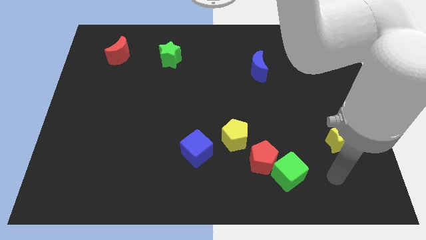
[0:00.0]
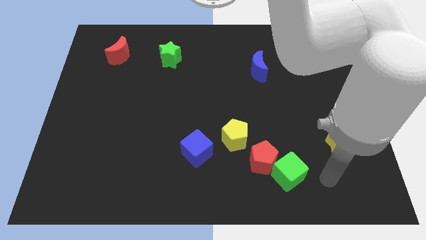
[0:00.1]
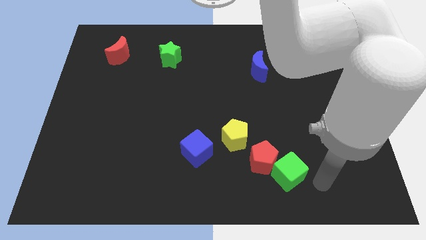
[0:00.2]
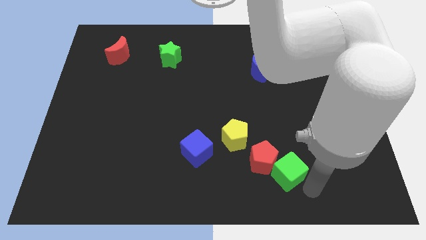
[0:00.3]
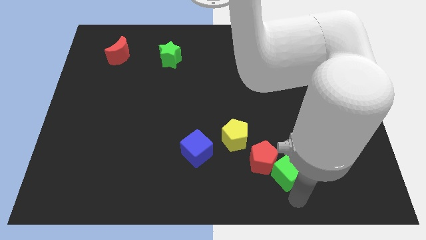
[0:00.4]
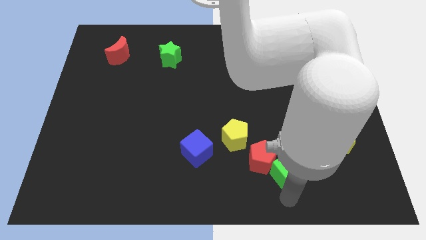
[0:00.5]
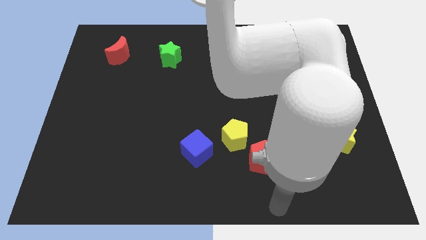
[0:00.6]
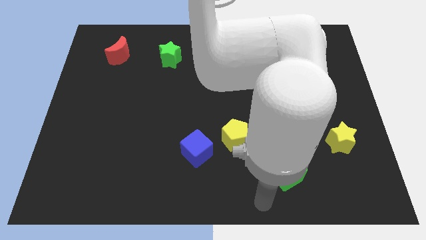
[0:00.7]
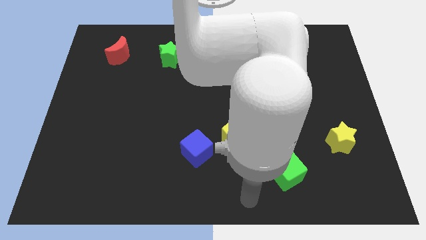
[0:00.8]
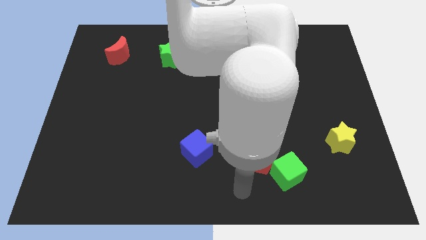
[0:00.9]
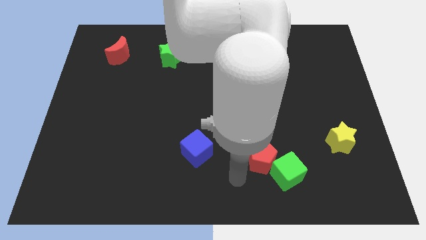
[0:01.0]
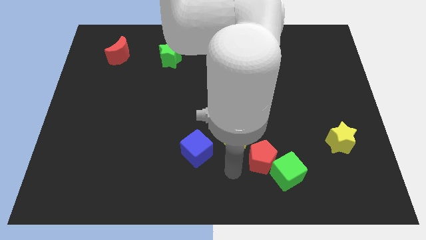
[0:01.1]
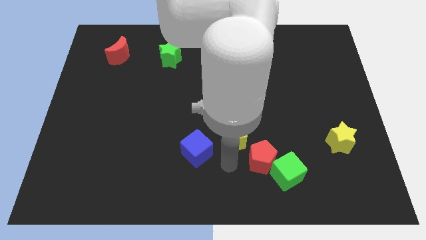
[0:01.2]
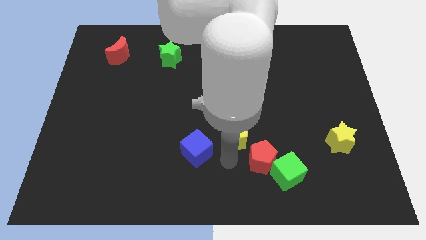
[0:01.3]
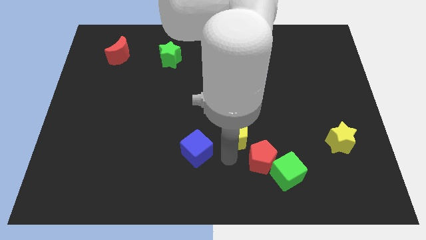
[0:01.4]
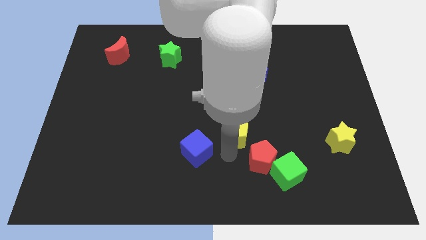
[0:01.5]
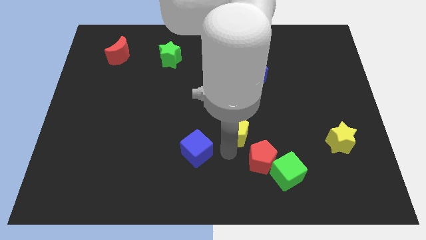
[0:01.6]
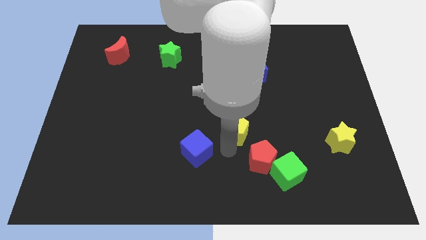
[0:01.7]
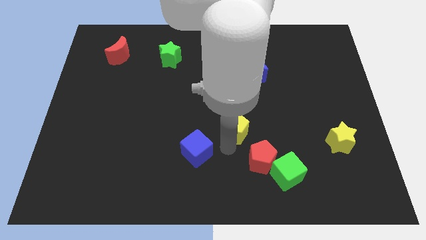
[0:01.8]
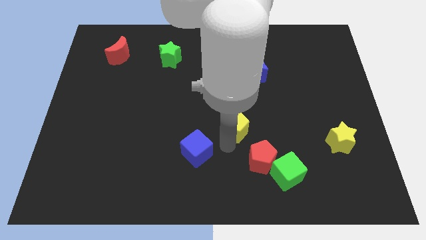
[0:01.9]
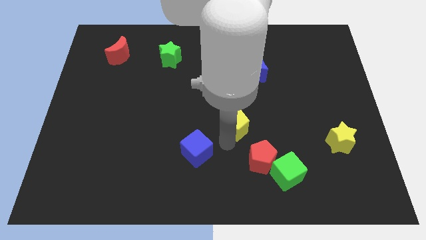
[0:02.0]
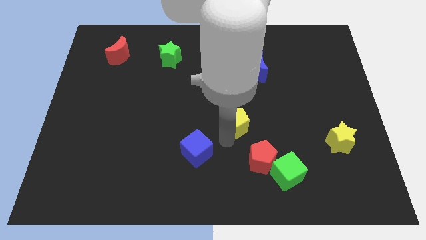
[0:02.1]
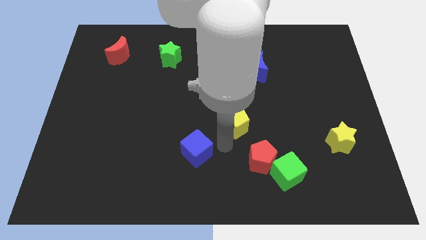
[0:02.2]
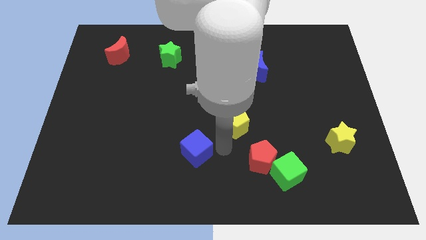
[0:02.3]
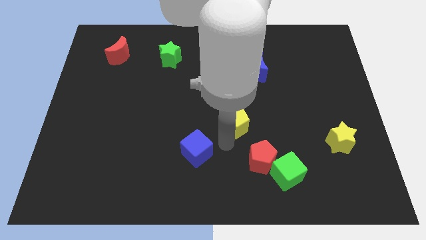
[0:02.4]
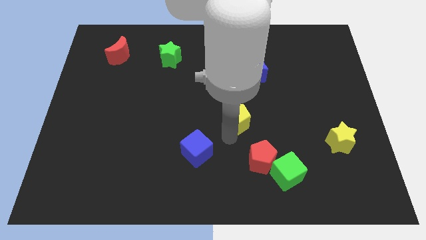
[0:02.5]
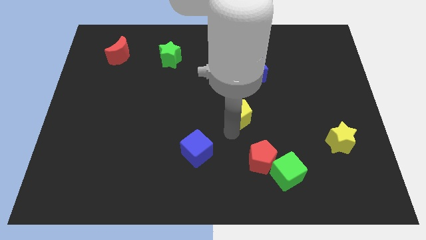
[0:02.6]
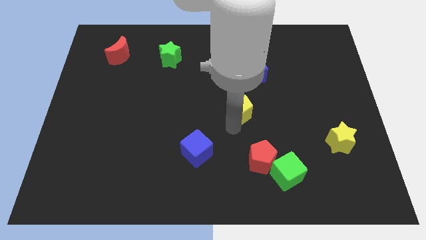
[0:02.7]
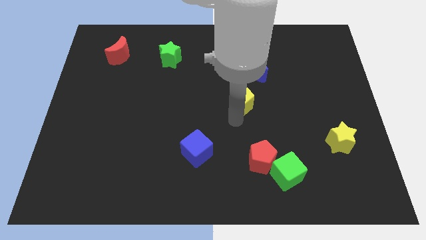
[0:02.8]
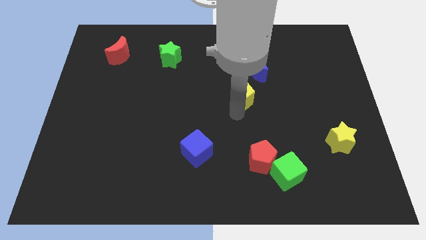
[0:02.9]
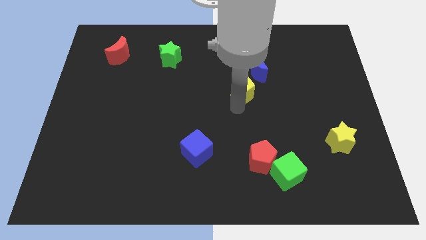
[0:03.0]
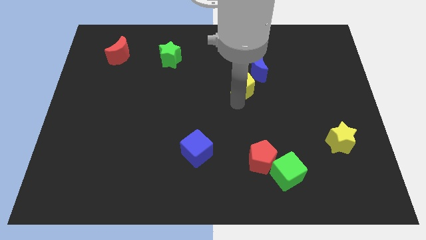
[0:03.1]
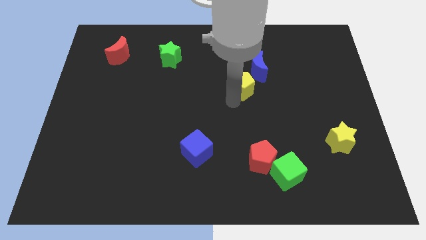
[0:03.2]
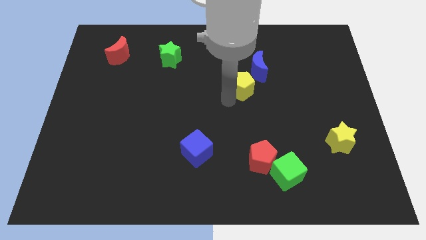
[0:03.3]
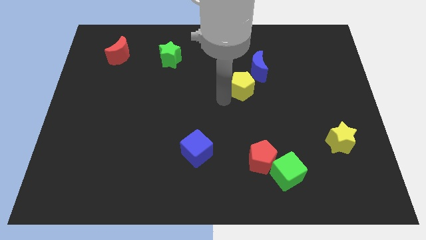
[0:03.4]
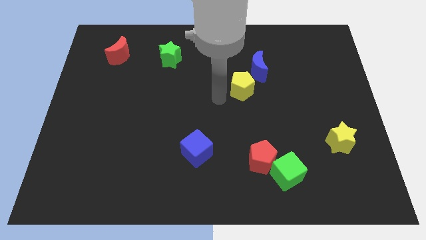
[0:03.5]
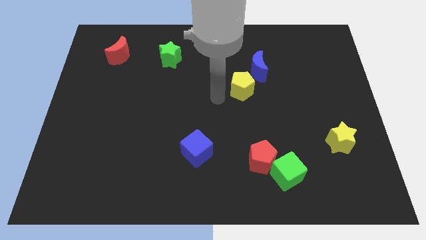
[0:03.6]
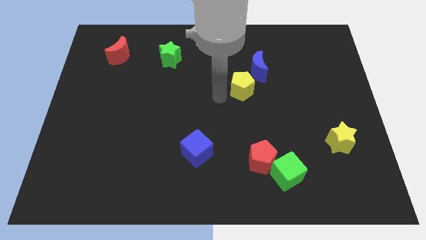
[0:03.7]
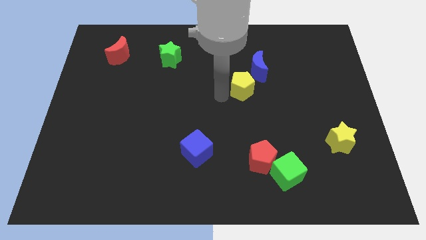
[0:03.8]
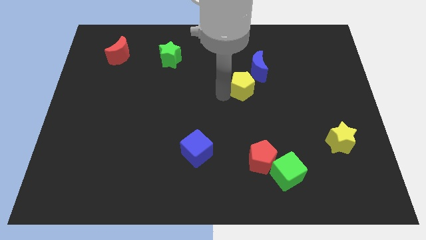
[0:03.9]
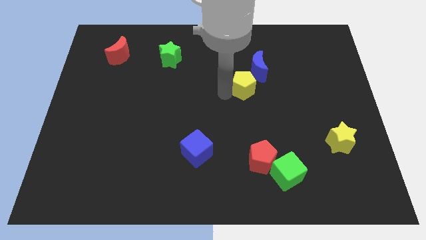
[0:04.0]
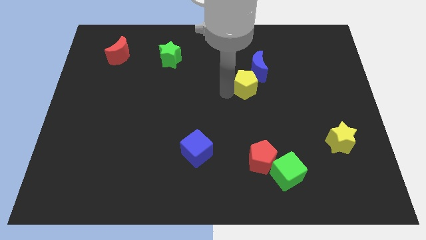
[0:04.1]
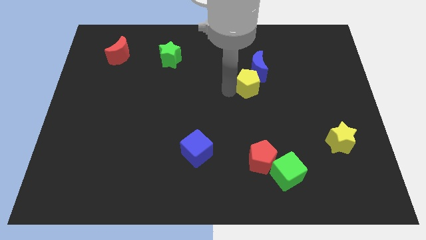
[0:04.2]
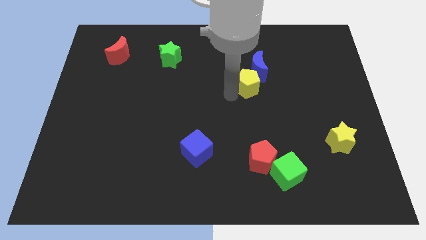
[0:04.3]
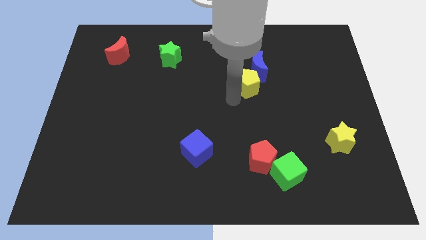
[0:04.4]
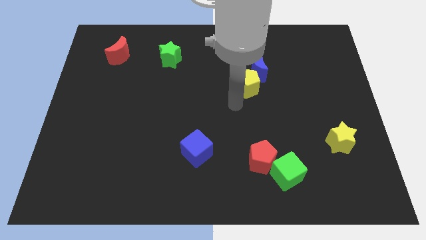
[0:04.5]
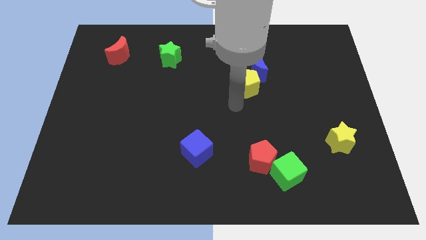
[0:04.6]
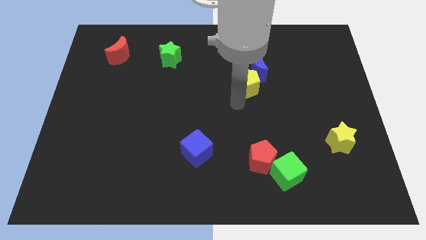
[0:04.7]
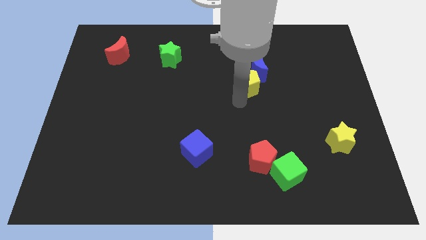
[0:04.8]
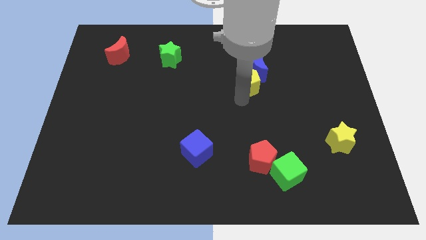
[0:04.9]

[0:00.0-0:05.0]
move the yellow pentagon towards the blue moon

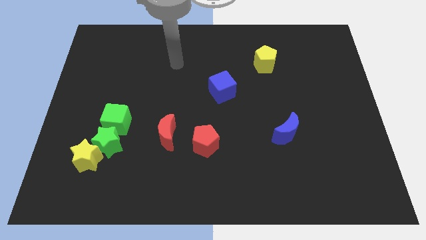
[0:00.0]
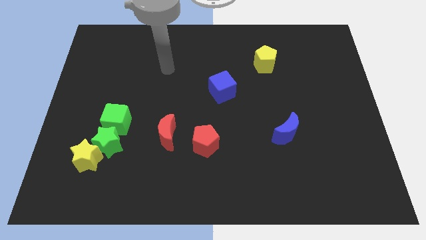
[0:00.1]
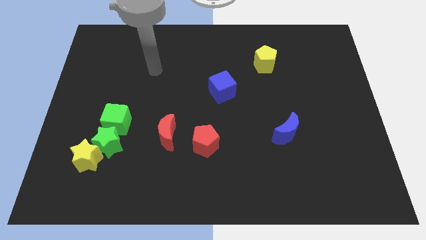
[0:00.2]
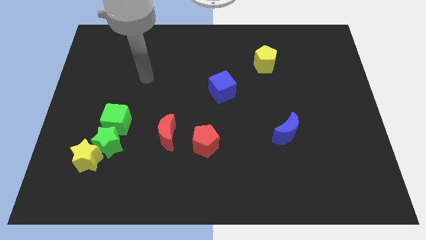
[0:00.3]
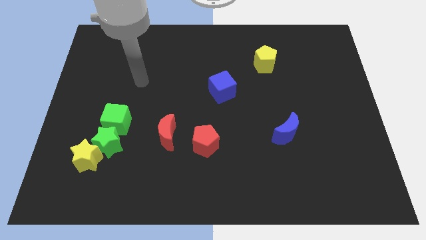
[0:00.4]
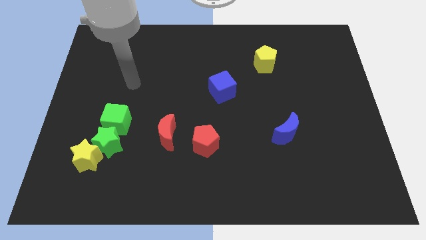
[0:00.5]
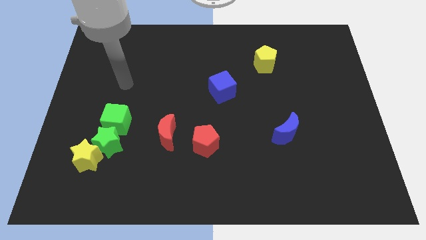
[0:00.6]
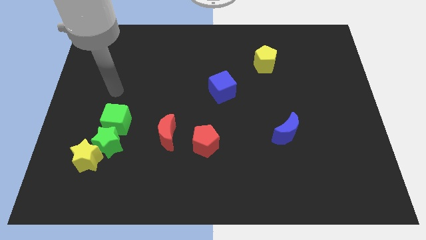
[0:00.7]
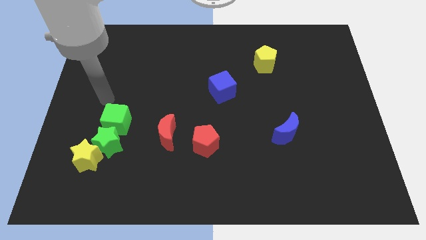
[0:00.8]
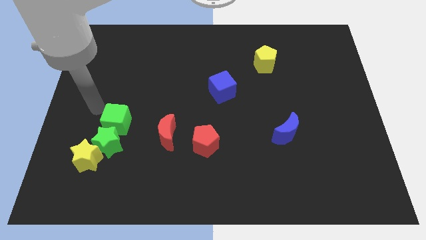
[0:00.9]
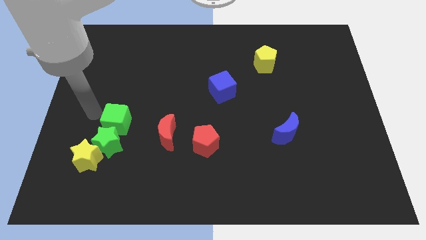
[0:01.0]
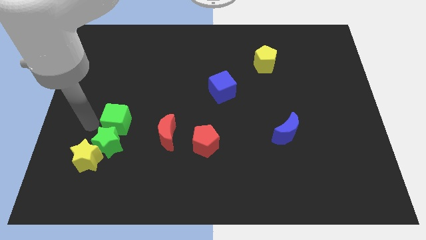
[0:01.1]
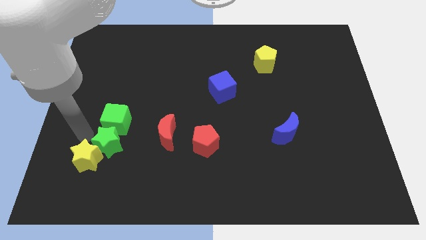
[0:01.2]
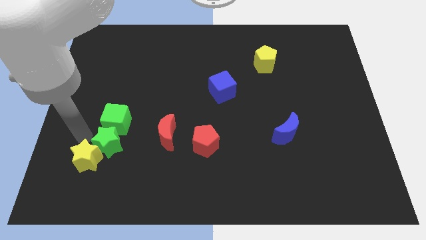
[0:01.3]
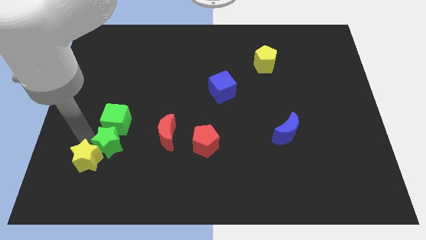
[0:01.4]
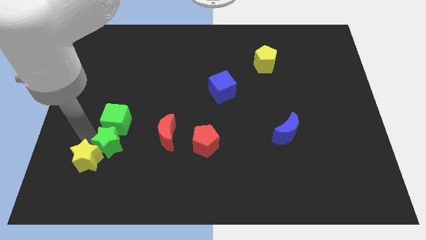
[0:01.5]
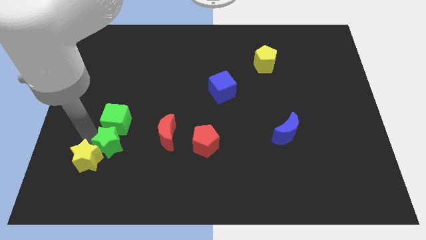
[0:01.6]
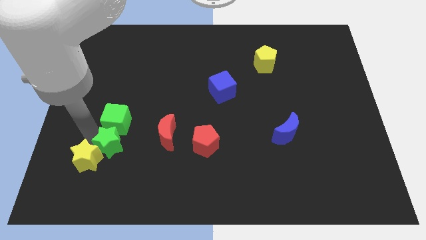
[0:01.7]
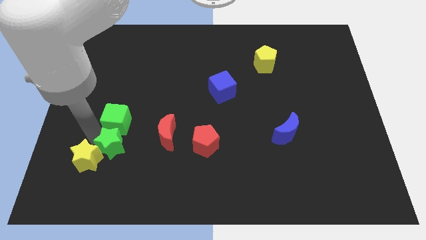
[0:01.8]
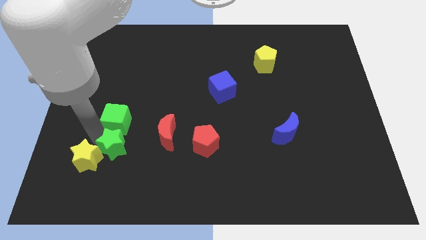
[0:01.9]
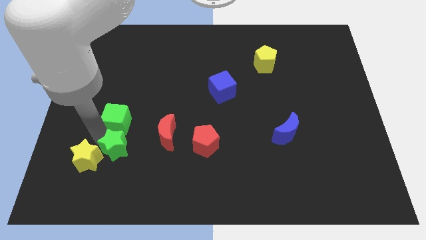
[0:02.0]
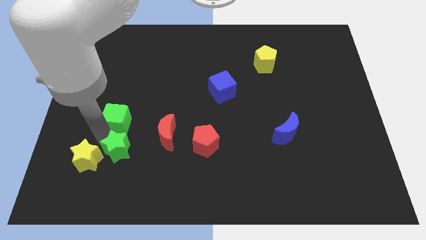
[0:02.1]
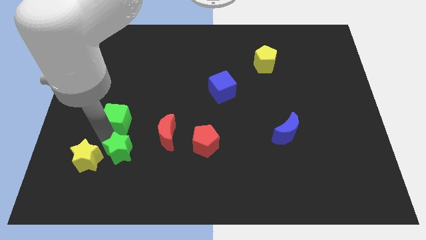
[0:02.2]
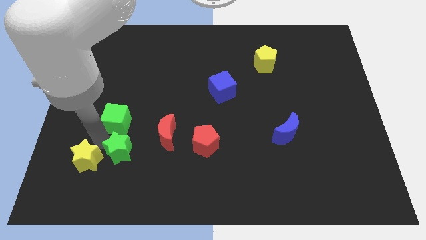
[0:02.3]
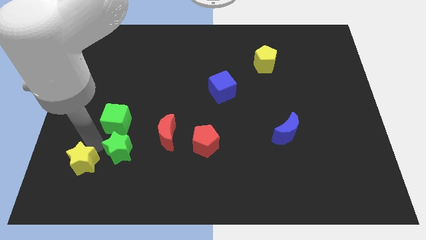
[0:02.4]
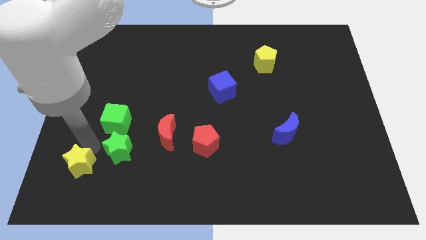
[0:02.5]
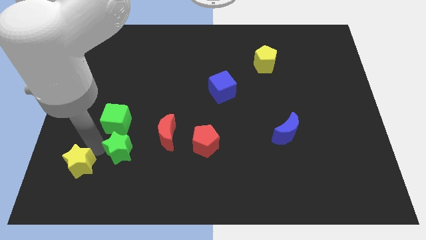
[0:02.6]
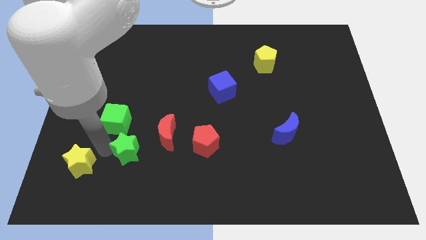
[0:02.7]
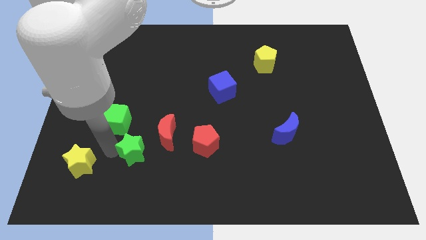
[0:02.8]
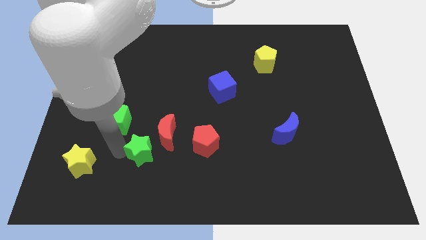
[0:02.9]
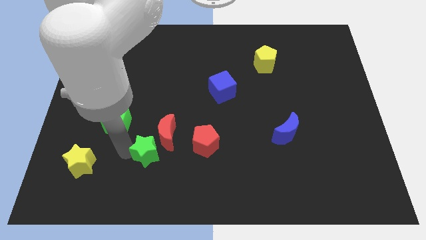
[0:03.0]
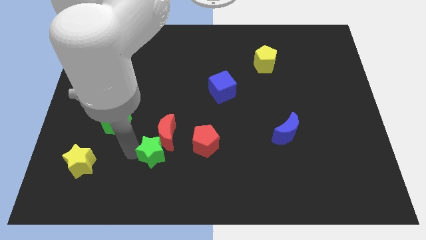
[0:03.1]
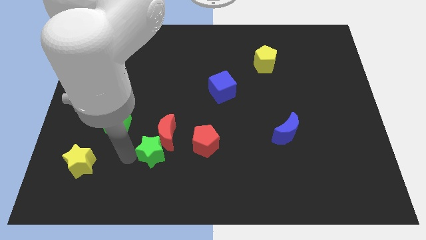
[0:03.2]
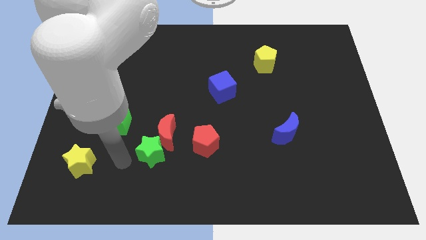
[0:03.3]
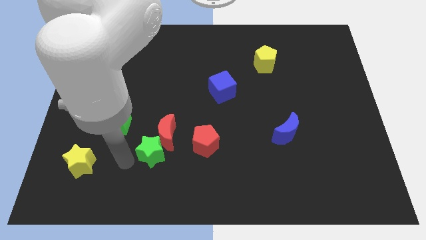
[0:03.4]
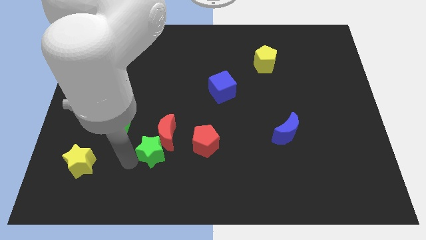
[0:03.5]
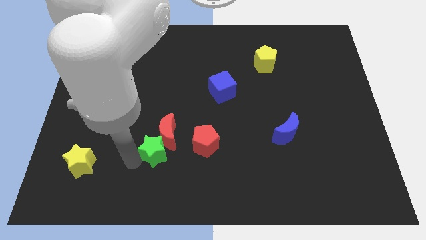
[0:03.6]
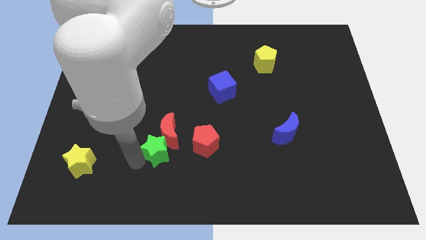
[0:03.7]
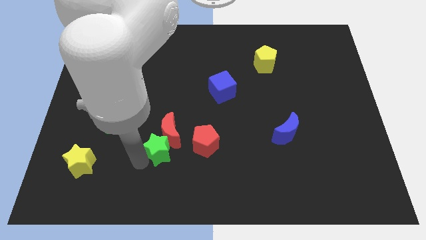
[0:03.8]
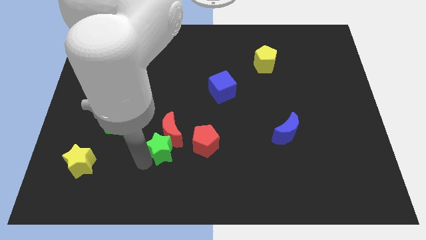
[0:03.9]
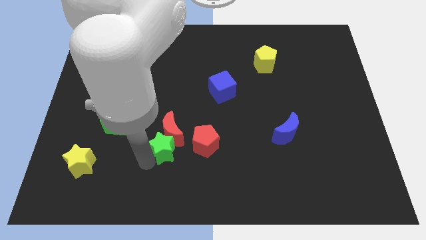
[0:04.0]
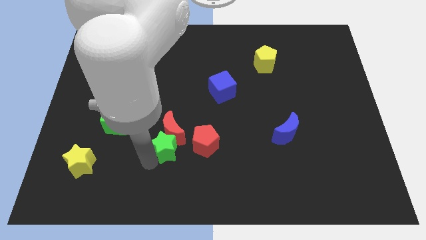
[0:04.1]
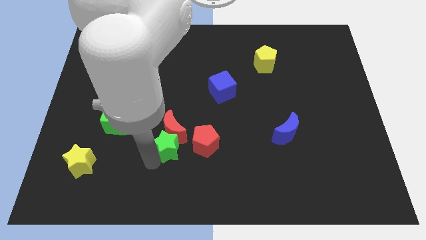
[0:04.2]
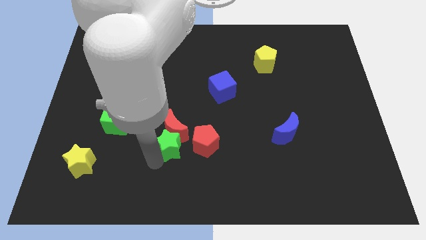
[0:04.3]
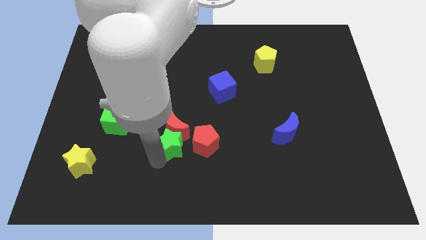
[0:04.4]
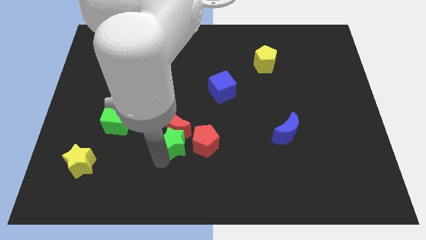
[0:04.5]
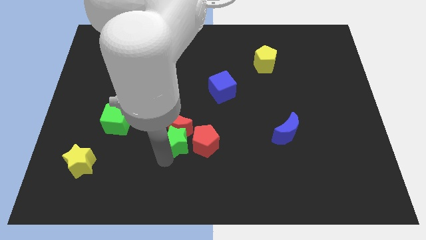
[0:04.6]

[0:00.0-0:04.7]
put the green star next to the red pentagon
